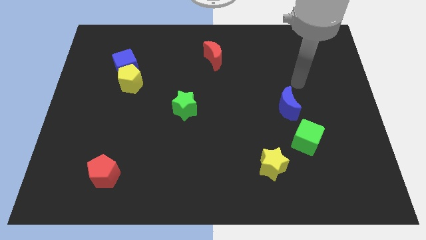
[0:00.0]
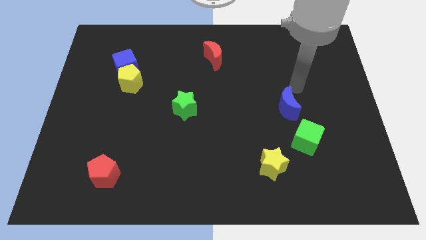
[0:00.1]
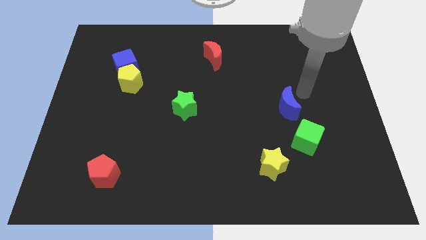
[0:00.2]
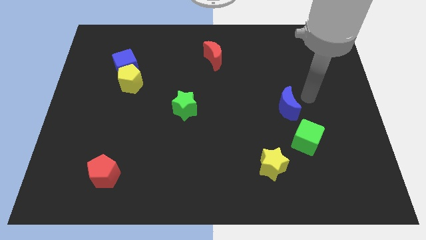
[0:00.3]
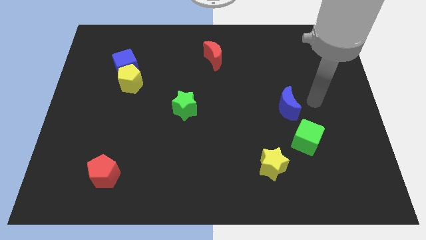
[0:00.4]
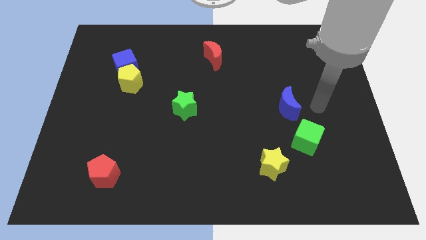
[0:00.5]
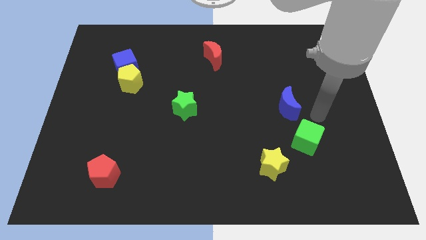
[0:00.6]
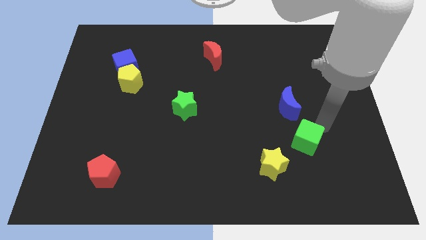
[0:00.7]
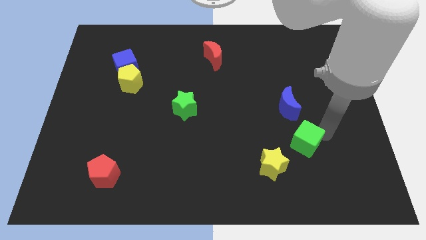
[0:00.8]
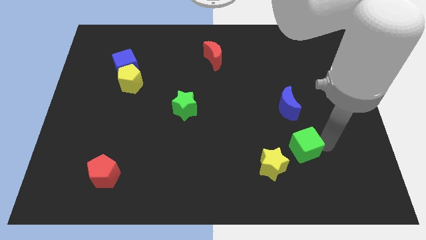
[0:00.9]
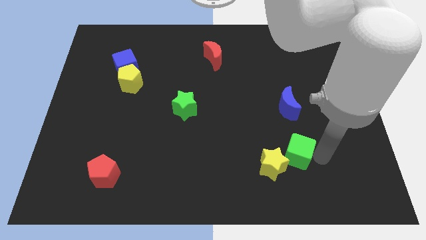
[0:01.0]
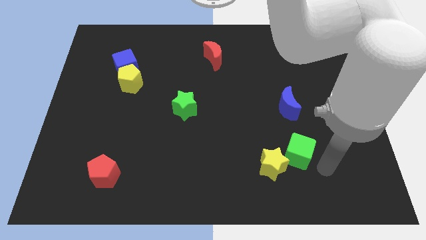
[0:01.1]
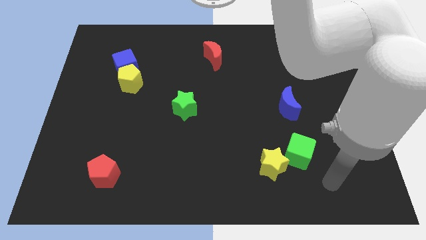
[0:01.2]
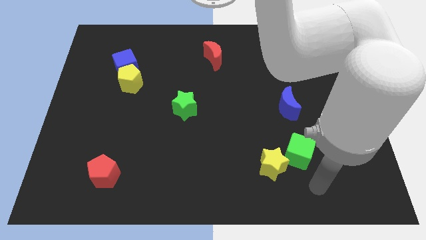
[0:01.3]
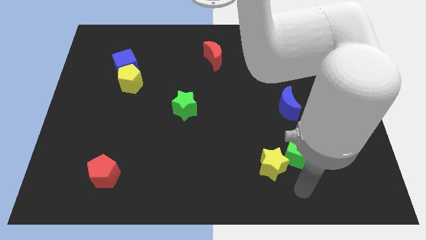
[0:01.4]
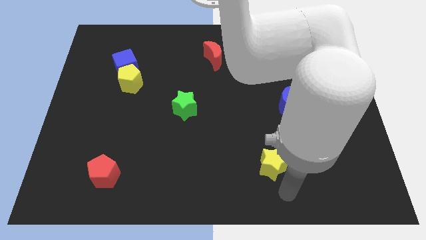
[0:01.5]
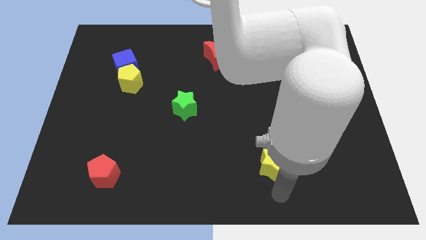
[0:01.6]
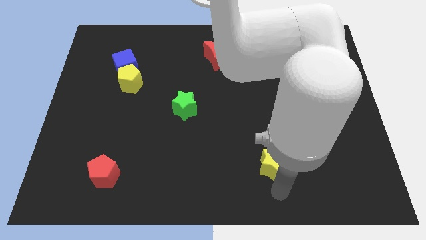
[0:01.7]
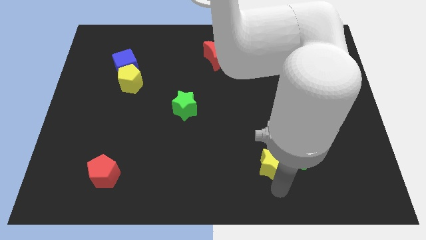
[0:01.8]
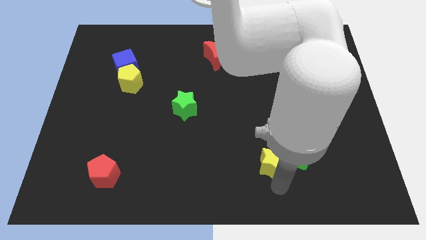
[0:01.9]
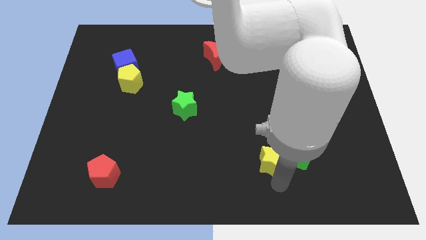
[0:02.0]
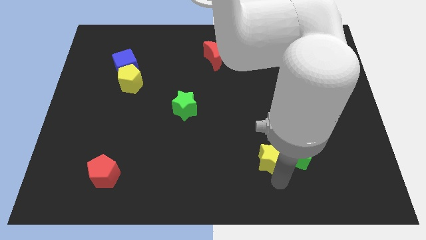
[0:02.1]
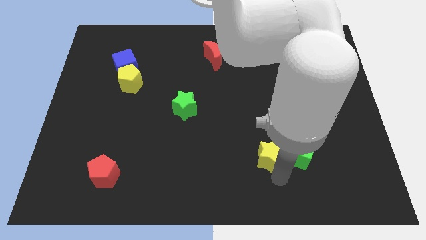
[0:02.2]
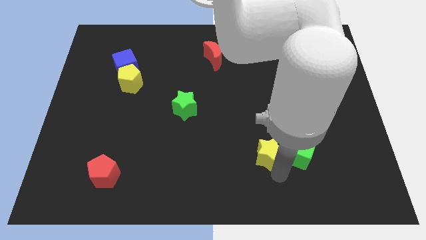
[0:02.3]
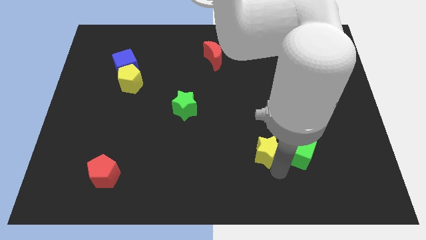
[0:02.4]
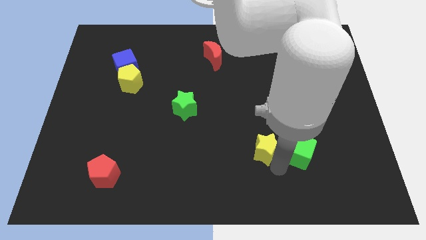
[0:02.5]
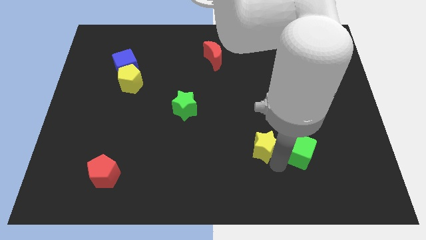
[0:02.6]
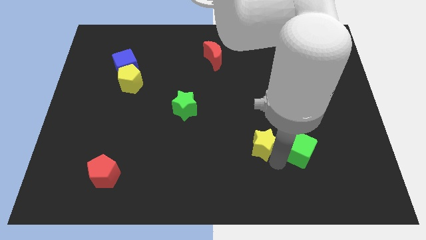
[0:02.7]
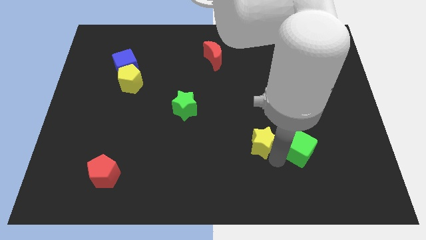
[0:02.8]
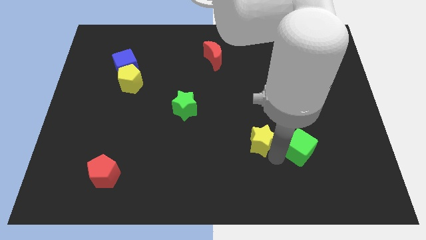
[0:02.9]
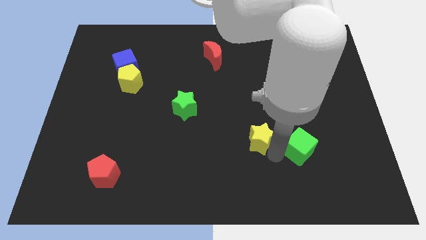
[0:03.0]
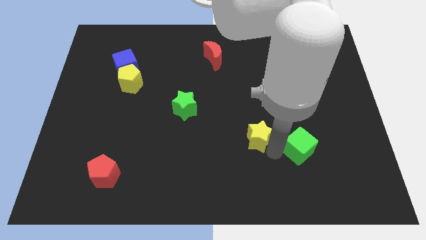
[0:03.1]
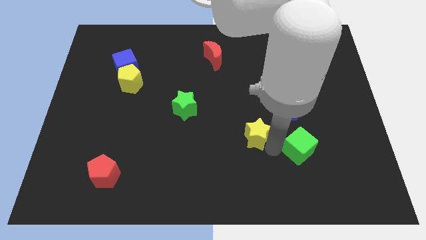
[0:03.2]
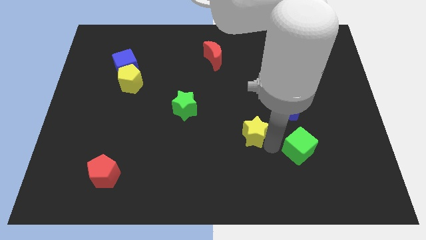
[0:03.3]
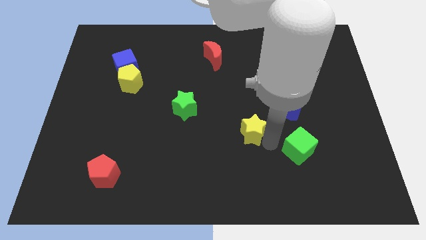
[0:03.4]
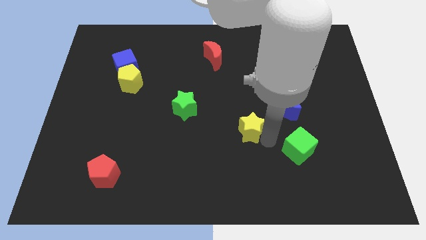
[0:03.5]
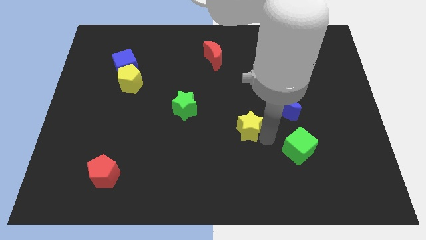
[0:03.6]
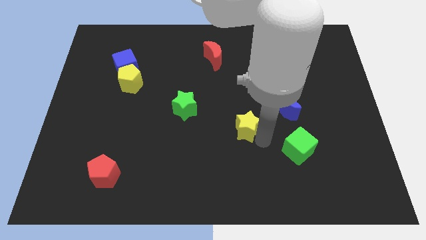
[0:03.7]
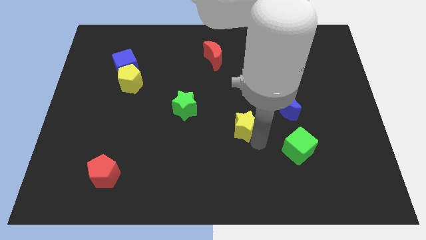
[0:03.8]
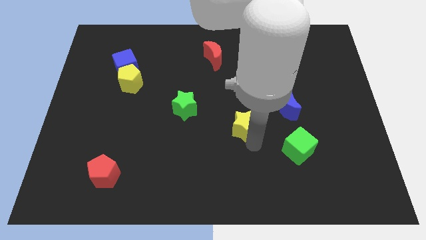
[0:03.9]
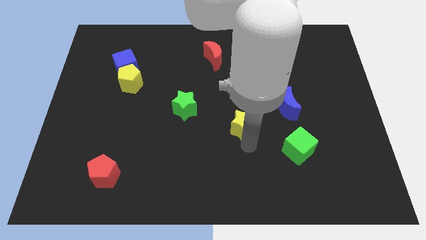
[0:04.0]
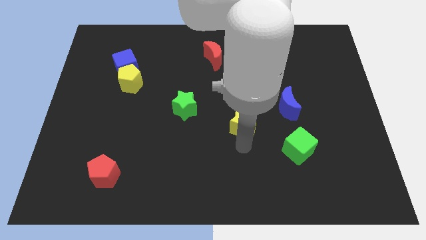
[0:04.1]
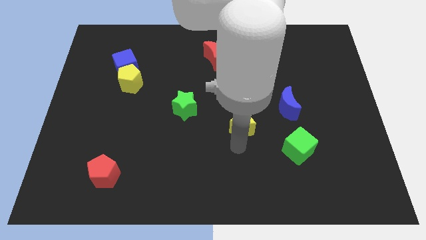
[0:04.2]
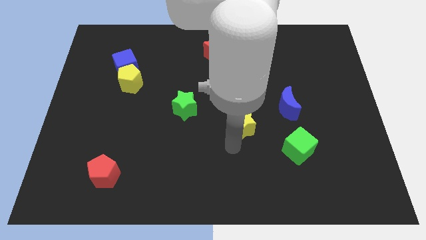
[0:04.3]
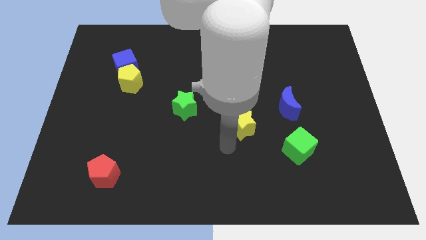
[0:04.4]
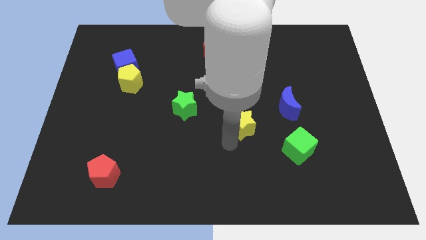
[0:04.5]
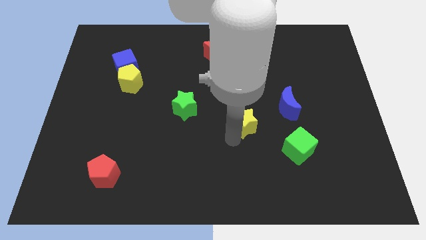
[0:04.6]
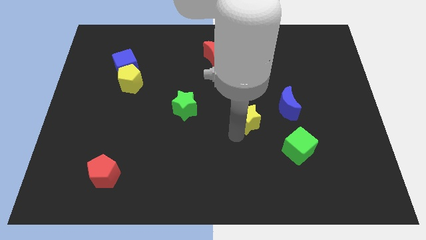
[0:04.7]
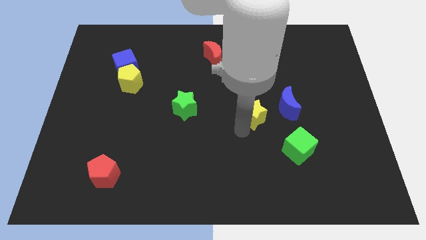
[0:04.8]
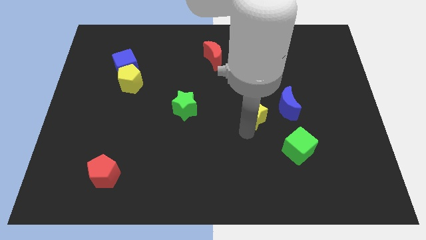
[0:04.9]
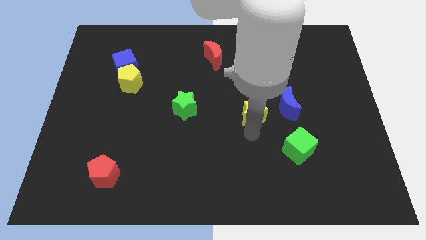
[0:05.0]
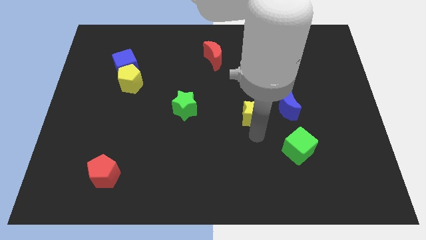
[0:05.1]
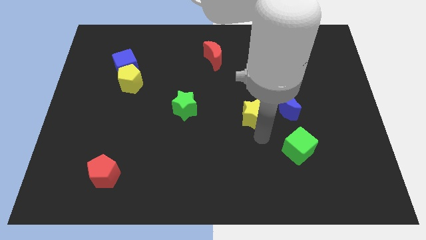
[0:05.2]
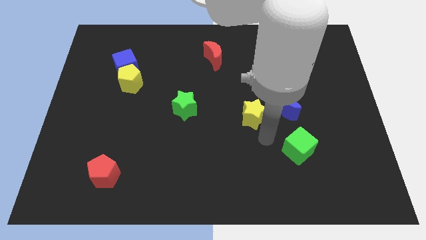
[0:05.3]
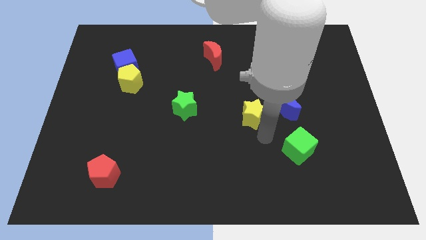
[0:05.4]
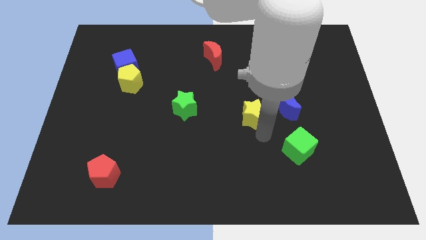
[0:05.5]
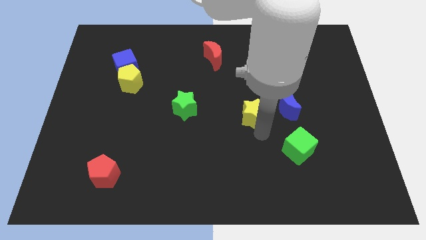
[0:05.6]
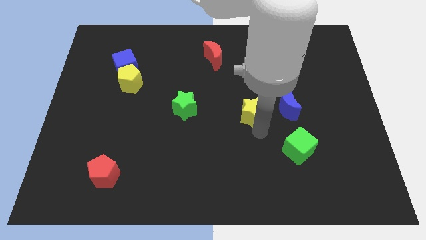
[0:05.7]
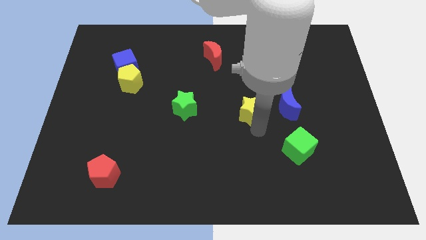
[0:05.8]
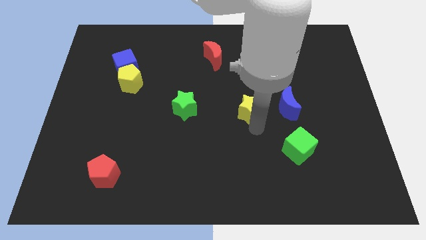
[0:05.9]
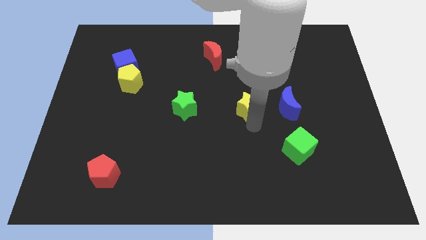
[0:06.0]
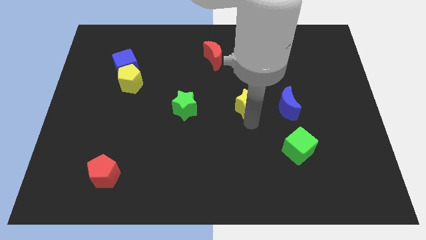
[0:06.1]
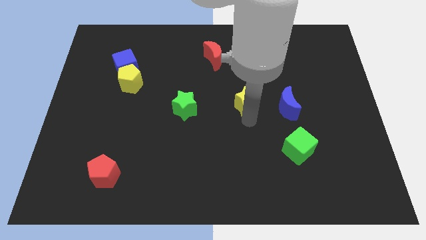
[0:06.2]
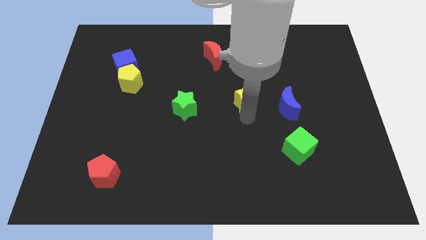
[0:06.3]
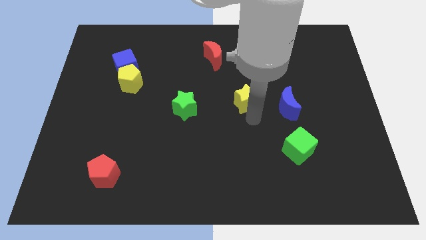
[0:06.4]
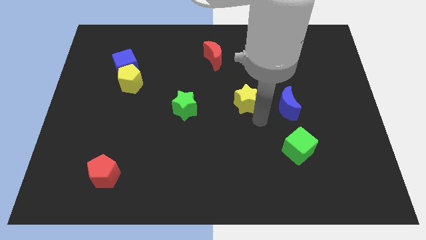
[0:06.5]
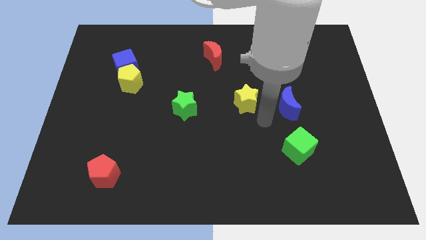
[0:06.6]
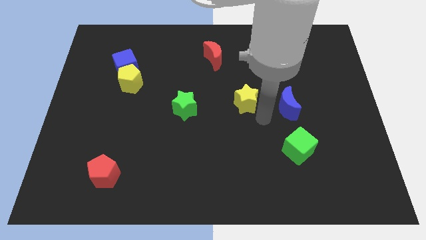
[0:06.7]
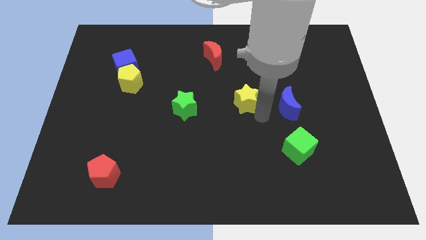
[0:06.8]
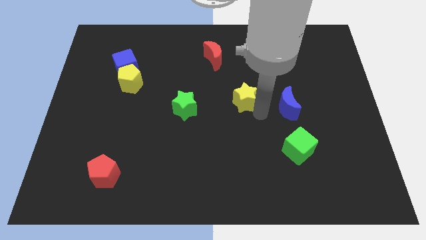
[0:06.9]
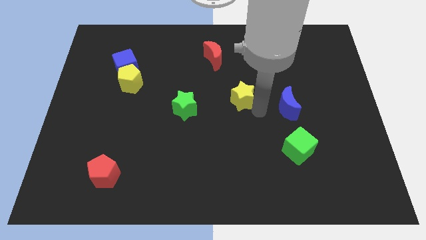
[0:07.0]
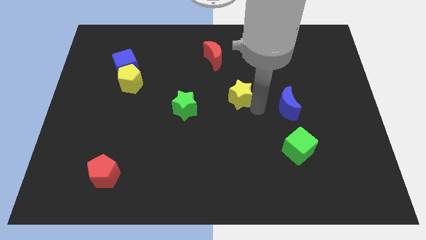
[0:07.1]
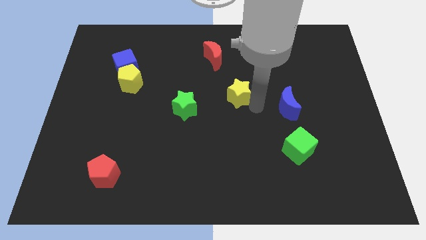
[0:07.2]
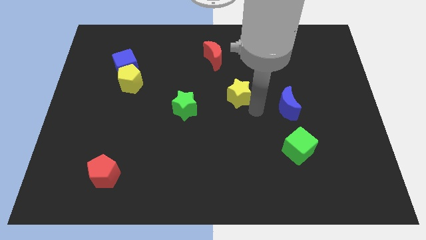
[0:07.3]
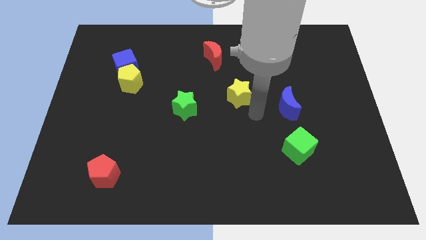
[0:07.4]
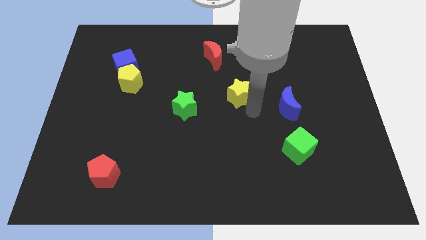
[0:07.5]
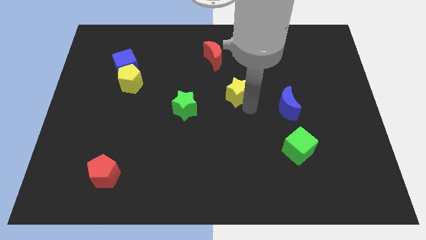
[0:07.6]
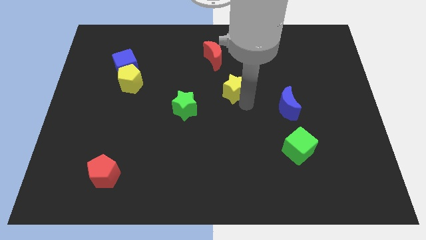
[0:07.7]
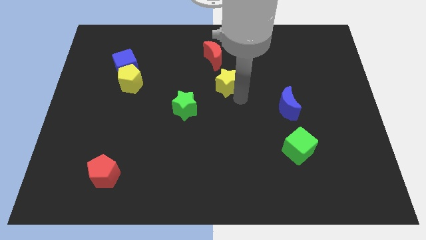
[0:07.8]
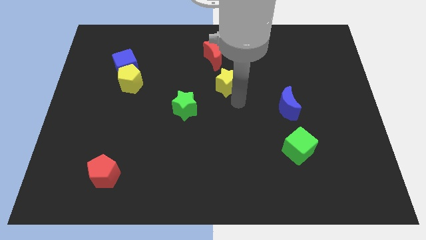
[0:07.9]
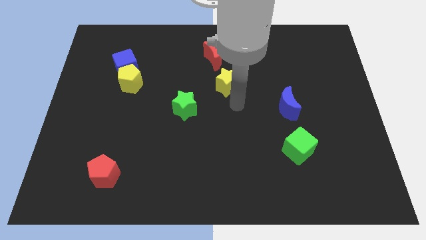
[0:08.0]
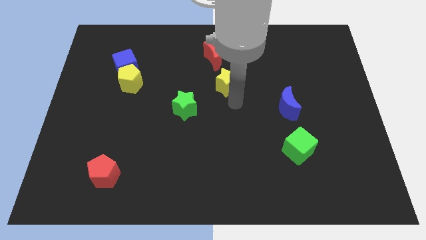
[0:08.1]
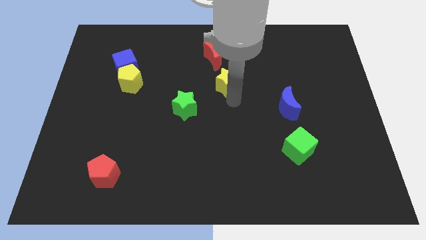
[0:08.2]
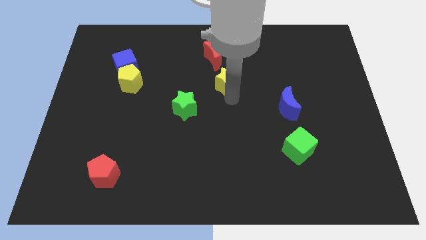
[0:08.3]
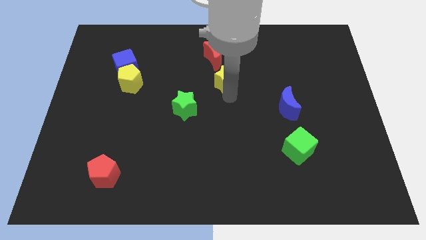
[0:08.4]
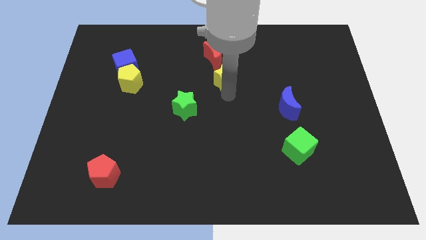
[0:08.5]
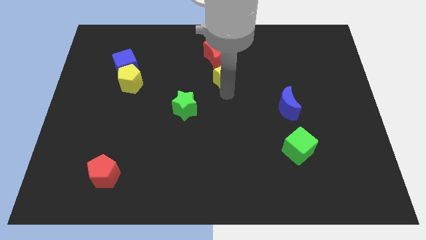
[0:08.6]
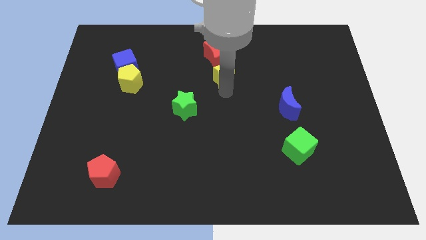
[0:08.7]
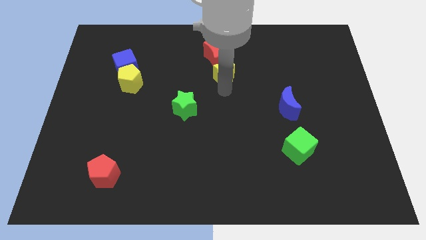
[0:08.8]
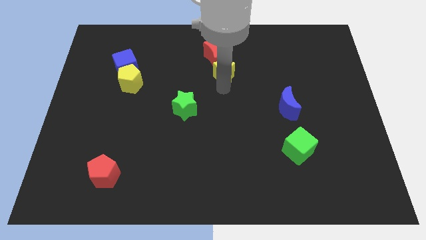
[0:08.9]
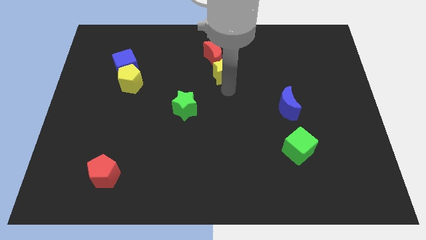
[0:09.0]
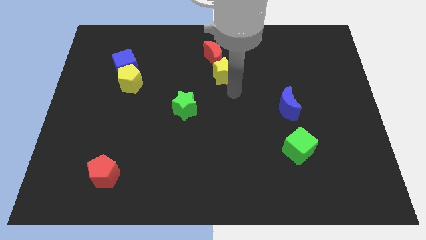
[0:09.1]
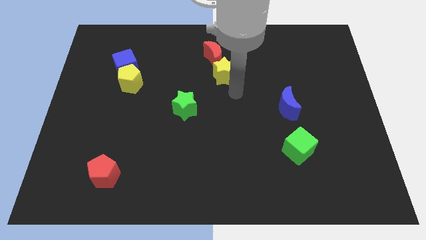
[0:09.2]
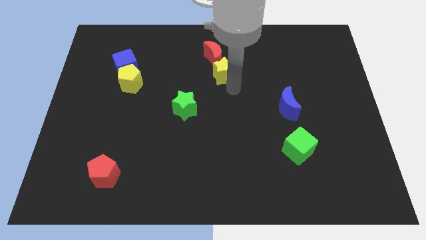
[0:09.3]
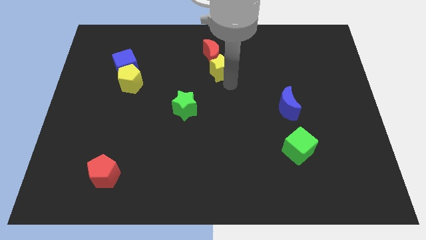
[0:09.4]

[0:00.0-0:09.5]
put the yellow star next to the red moon
